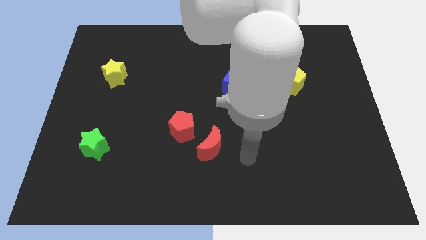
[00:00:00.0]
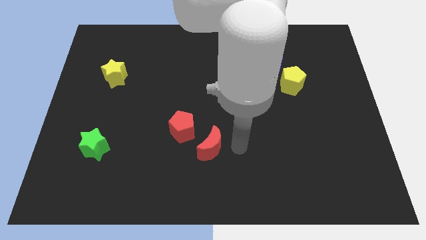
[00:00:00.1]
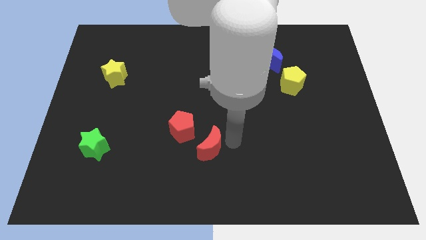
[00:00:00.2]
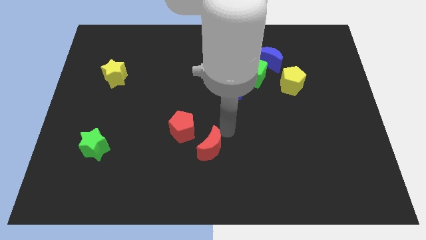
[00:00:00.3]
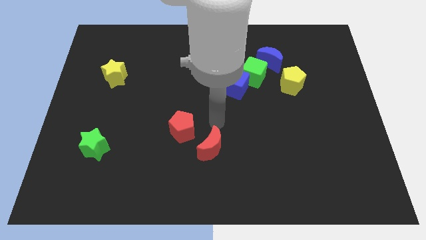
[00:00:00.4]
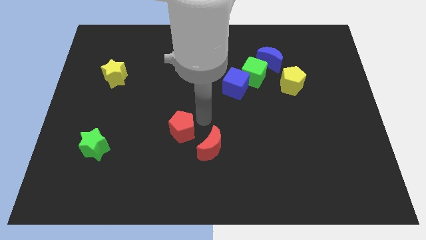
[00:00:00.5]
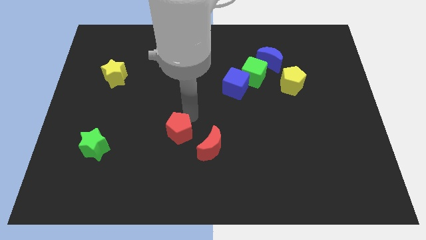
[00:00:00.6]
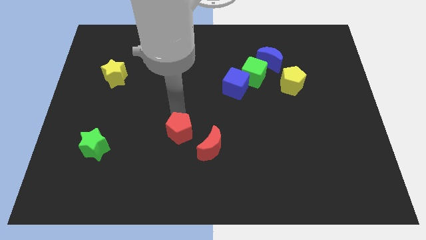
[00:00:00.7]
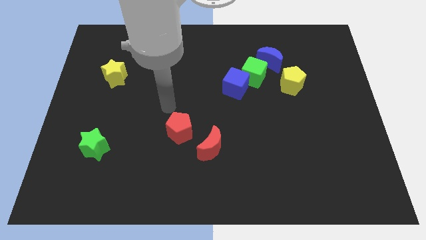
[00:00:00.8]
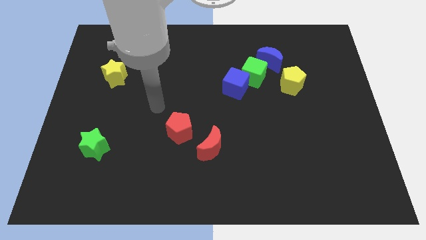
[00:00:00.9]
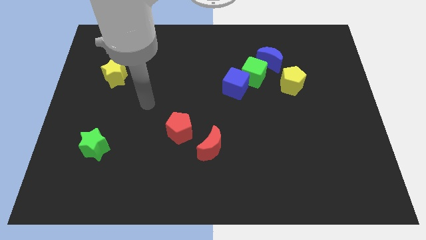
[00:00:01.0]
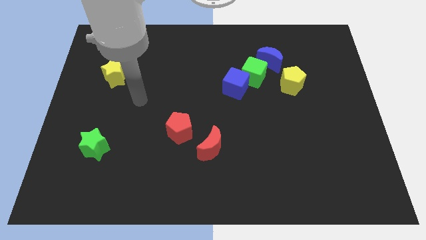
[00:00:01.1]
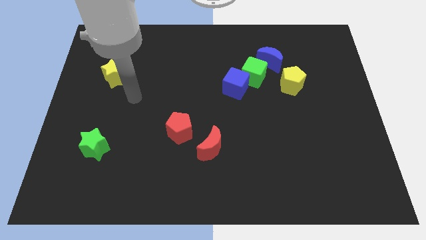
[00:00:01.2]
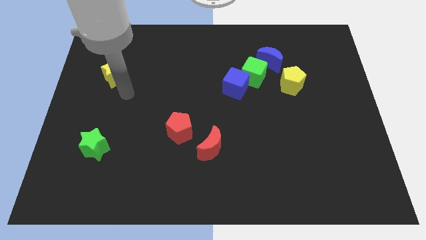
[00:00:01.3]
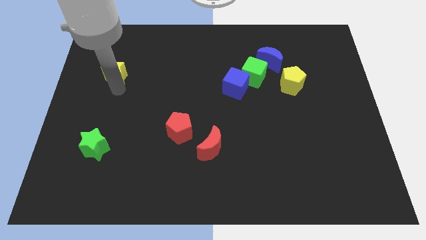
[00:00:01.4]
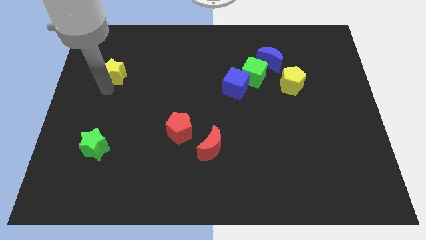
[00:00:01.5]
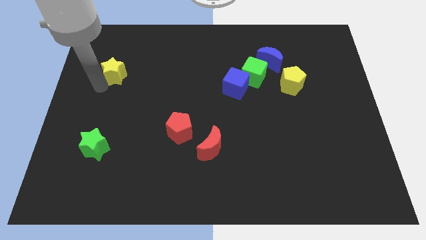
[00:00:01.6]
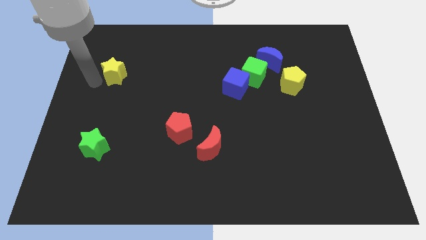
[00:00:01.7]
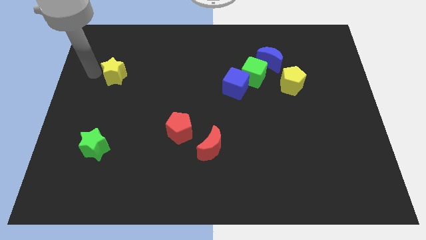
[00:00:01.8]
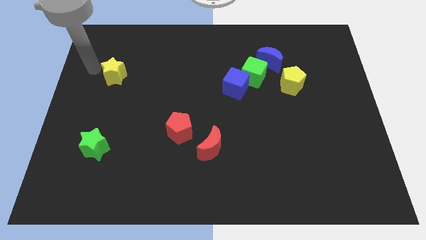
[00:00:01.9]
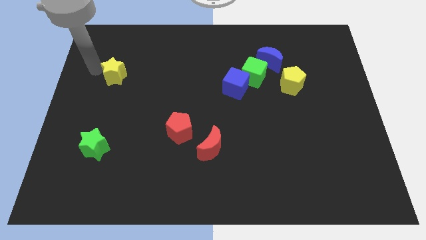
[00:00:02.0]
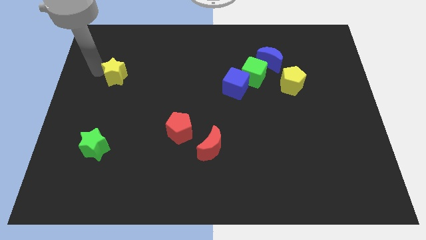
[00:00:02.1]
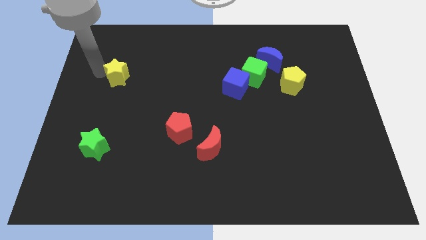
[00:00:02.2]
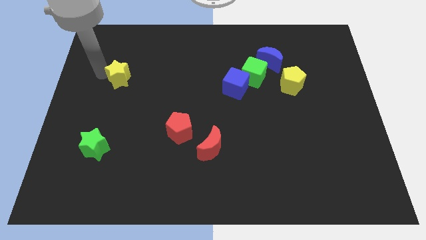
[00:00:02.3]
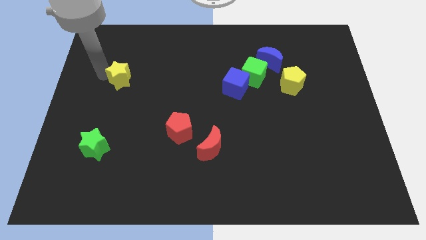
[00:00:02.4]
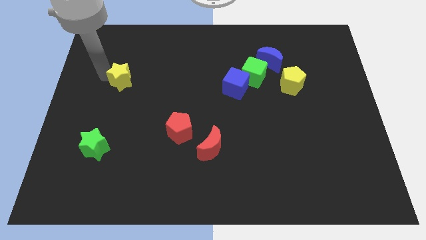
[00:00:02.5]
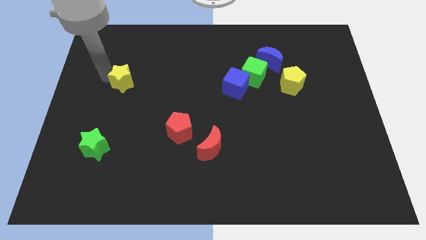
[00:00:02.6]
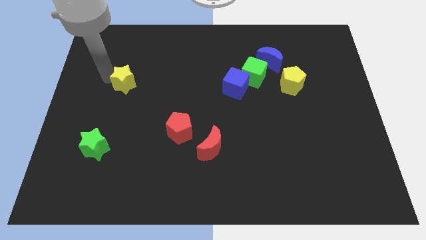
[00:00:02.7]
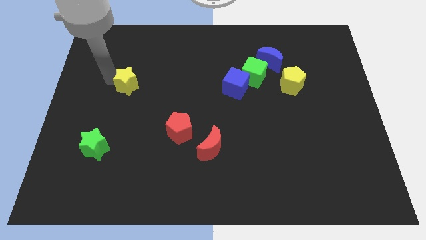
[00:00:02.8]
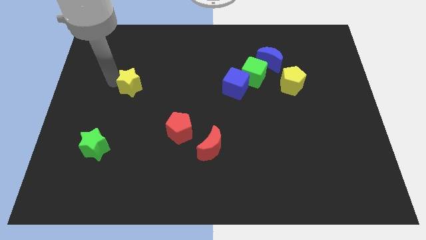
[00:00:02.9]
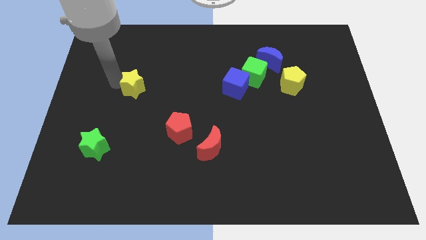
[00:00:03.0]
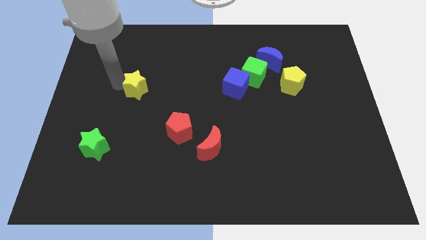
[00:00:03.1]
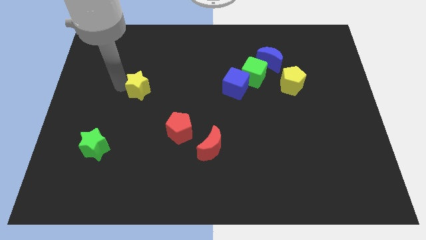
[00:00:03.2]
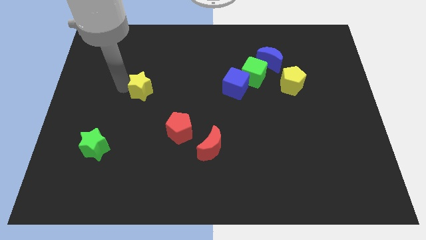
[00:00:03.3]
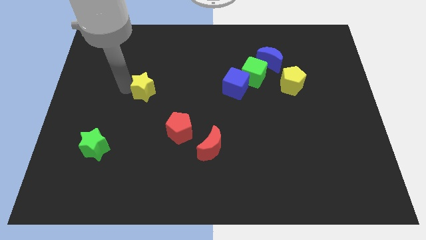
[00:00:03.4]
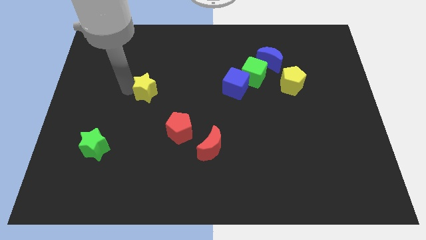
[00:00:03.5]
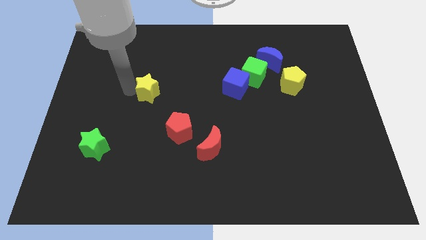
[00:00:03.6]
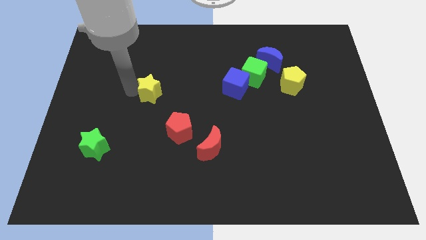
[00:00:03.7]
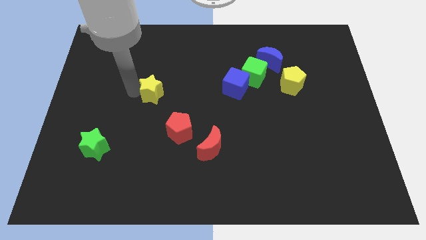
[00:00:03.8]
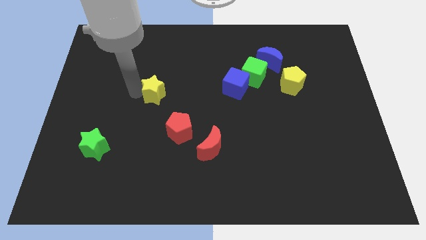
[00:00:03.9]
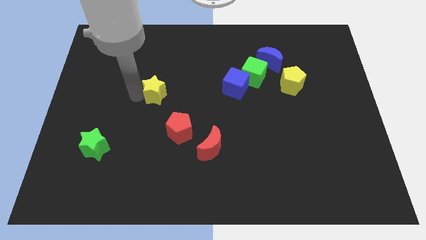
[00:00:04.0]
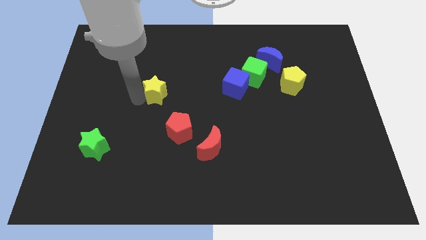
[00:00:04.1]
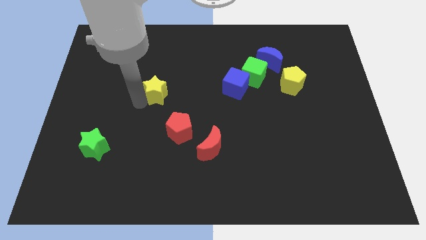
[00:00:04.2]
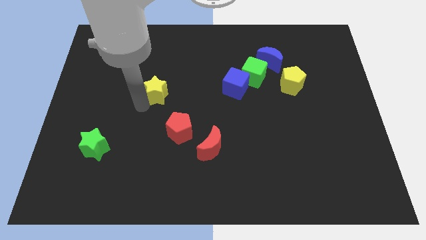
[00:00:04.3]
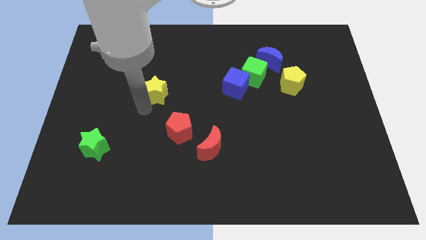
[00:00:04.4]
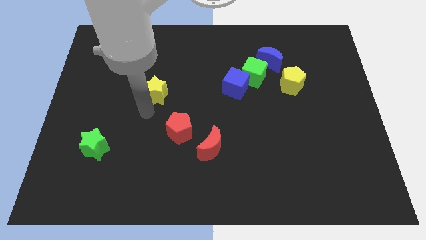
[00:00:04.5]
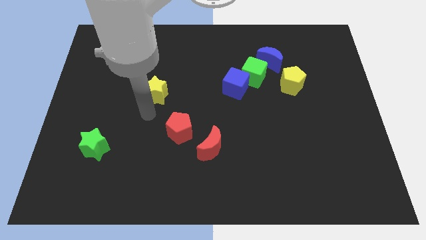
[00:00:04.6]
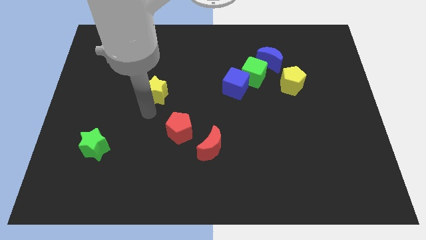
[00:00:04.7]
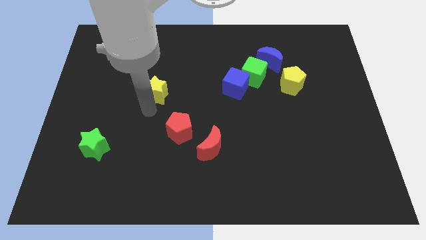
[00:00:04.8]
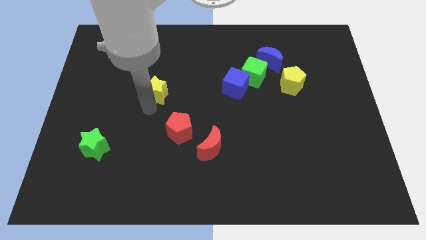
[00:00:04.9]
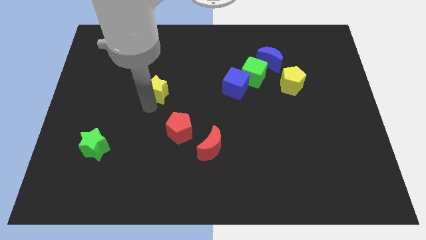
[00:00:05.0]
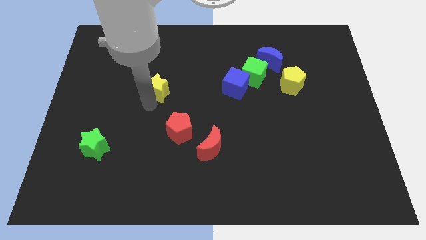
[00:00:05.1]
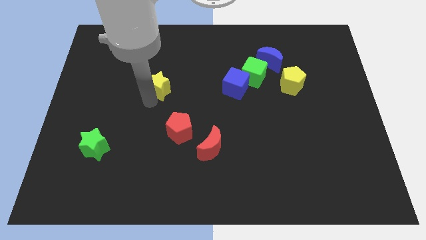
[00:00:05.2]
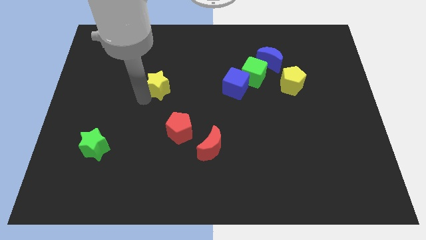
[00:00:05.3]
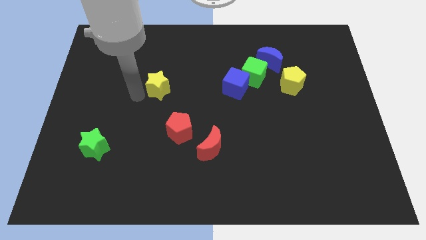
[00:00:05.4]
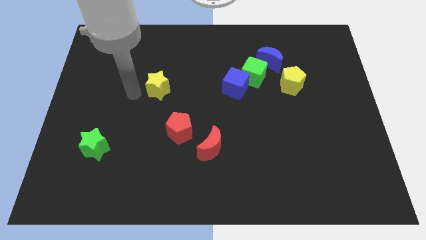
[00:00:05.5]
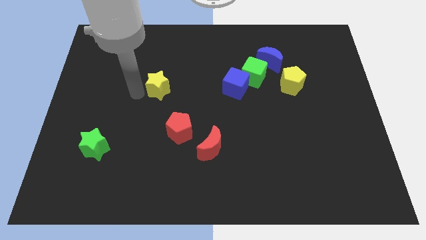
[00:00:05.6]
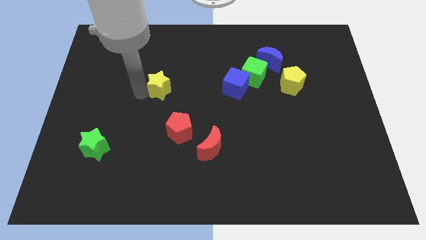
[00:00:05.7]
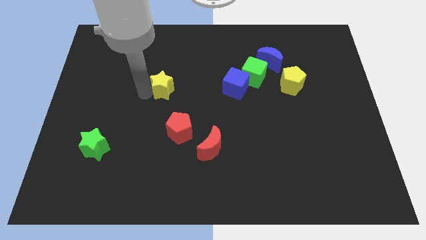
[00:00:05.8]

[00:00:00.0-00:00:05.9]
move the yellow star to the center of the board
